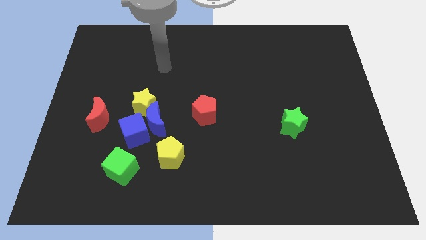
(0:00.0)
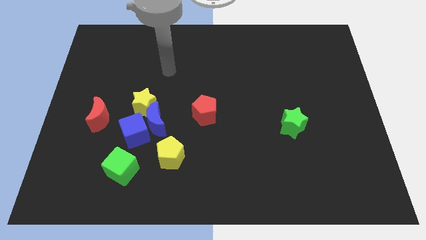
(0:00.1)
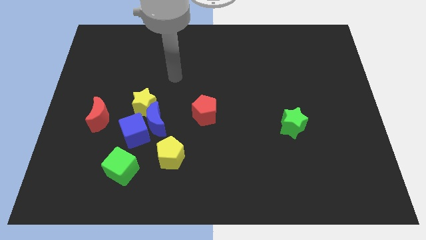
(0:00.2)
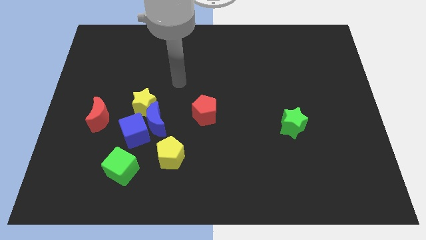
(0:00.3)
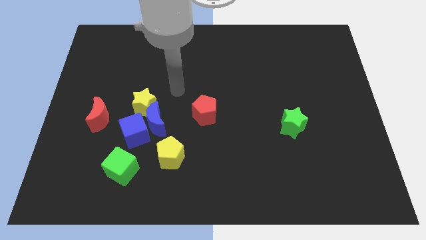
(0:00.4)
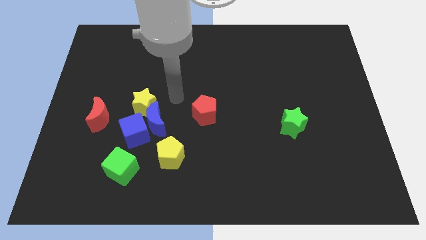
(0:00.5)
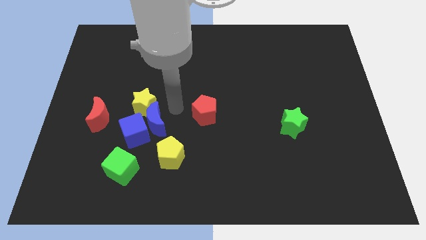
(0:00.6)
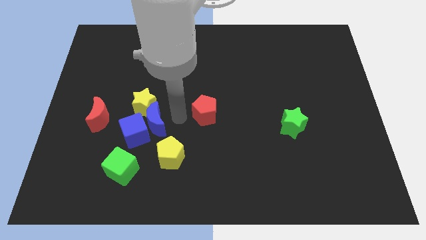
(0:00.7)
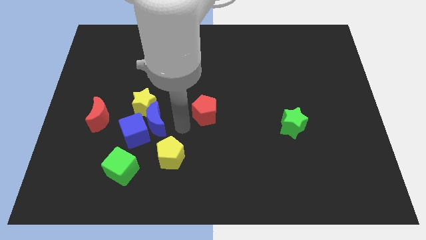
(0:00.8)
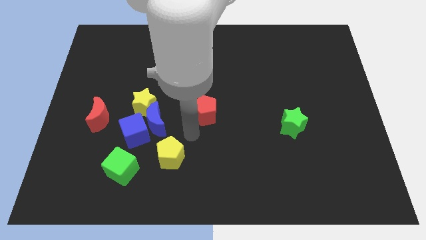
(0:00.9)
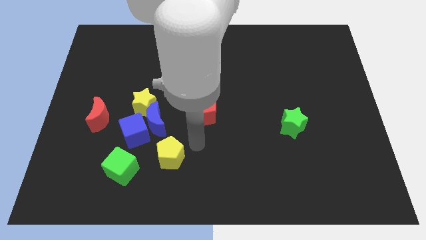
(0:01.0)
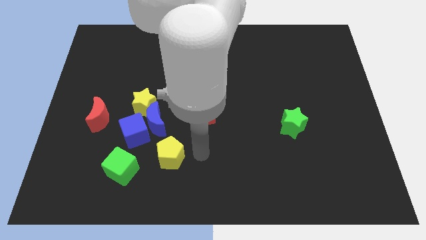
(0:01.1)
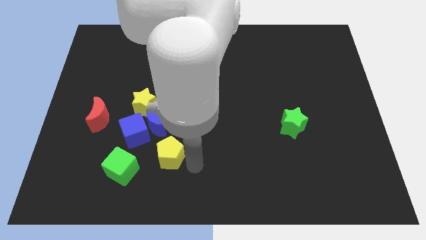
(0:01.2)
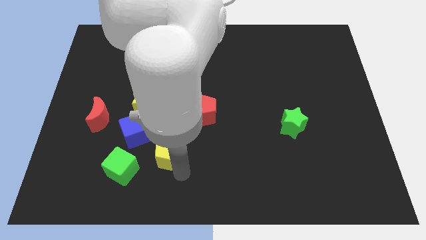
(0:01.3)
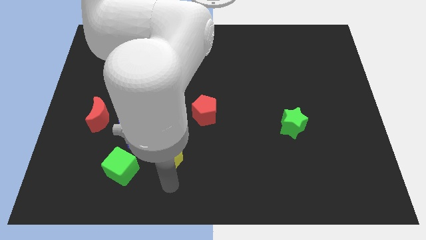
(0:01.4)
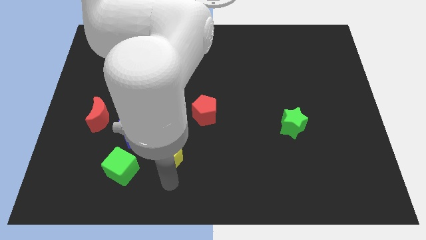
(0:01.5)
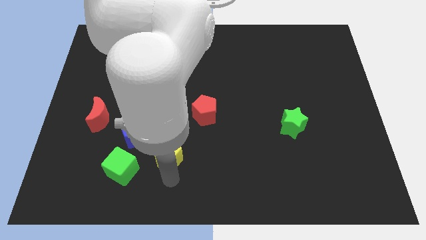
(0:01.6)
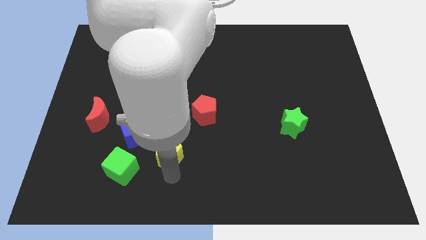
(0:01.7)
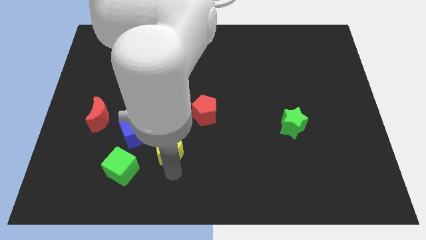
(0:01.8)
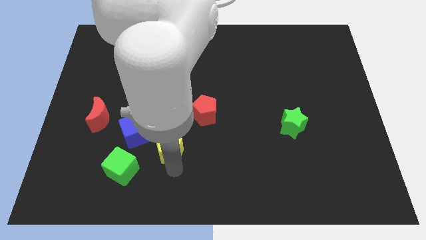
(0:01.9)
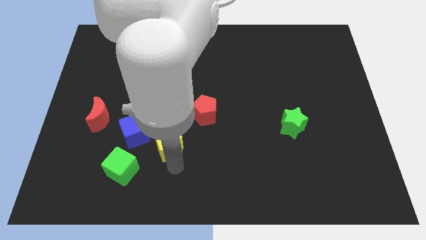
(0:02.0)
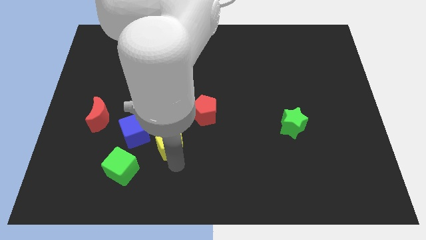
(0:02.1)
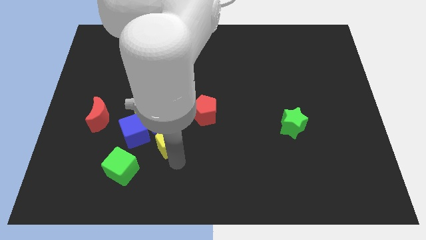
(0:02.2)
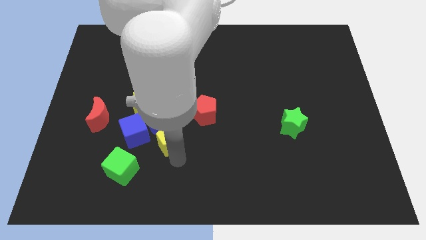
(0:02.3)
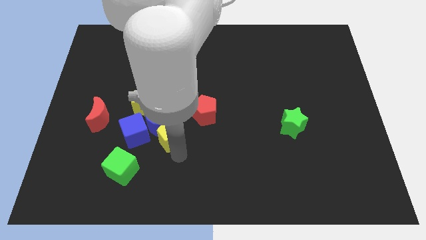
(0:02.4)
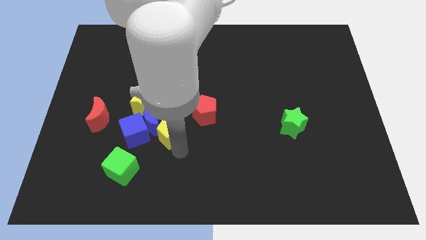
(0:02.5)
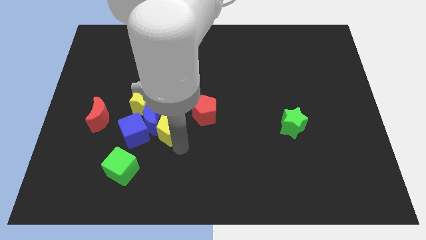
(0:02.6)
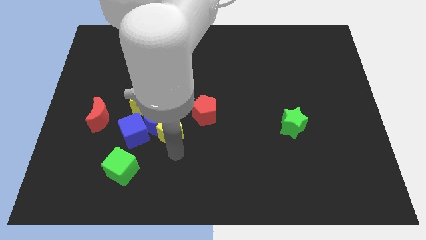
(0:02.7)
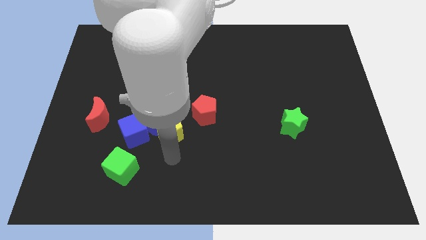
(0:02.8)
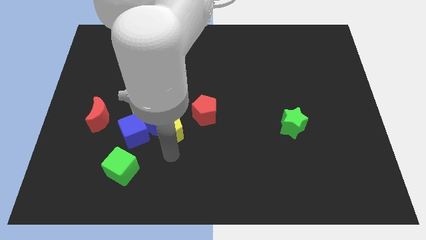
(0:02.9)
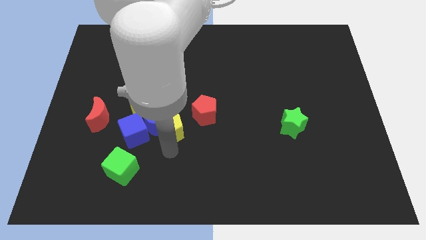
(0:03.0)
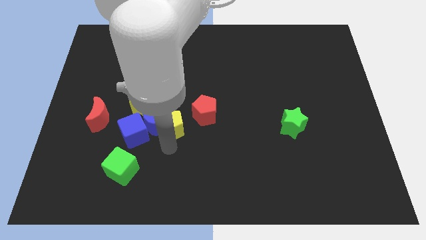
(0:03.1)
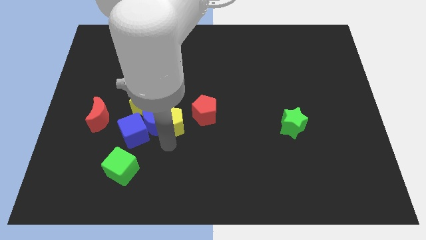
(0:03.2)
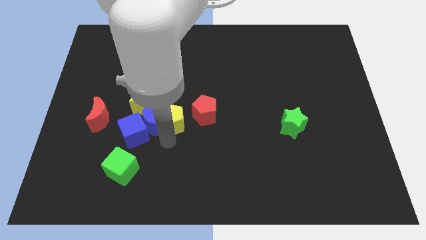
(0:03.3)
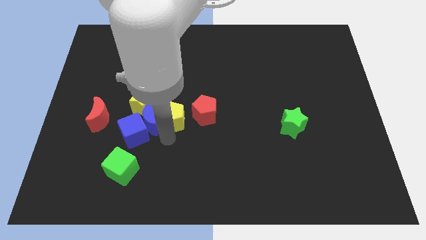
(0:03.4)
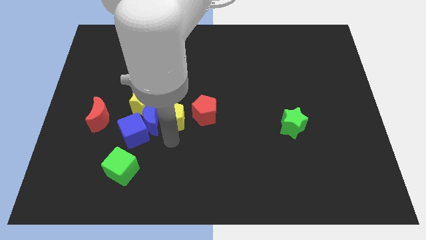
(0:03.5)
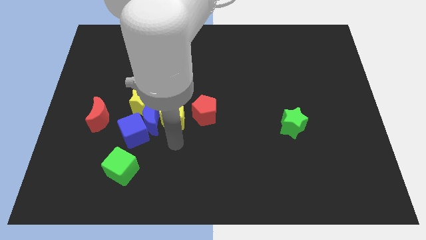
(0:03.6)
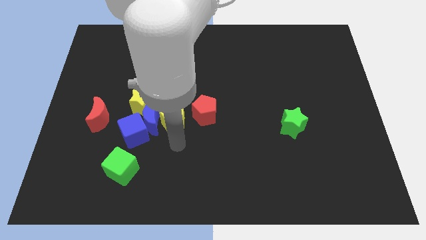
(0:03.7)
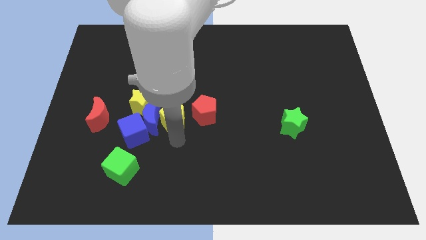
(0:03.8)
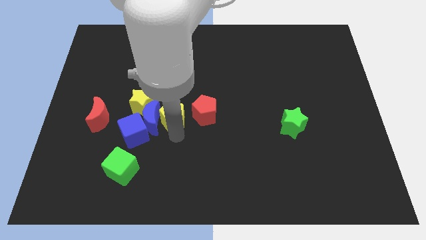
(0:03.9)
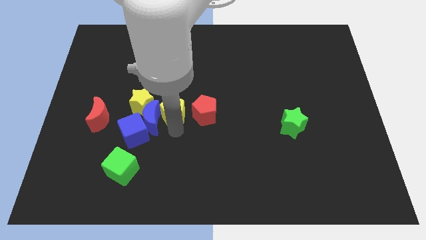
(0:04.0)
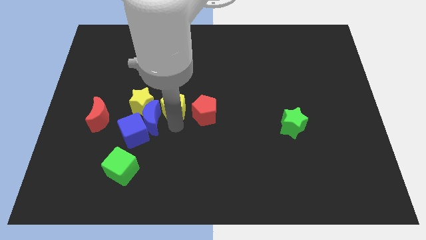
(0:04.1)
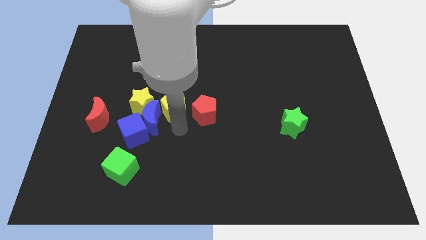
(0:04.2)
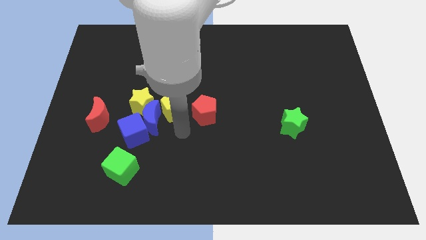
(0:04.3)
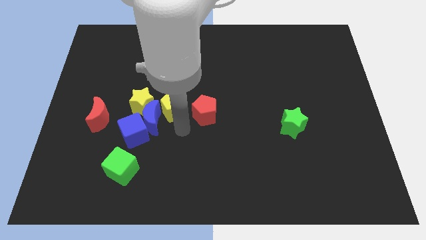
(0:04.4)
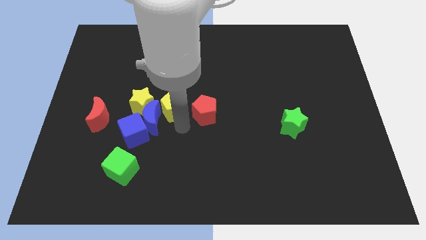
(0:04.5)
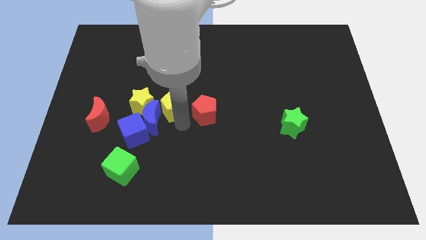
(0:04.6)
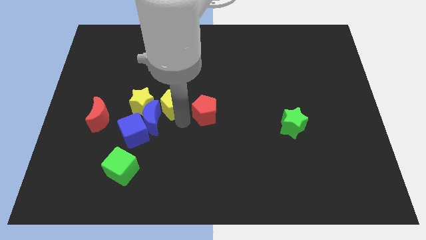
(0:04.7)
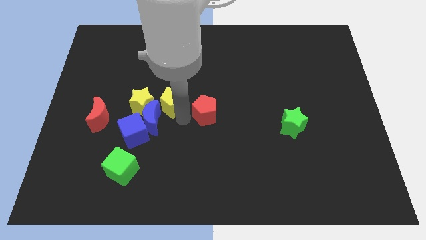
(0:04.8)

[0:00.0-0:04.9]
put the yellow pentagon to the top right side of the yellow star

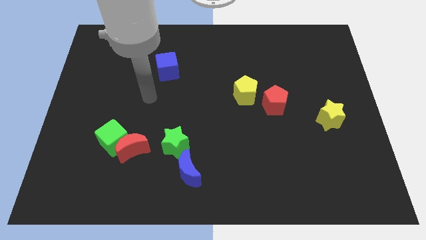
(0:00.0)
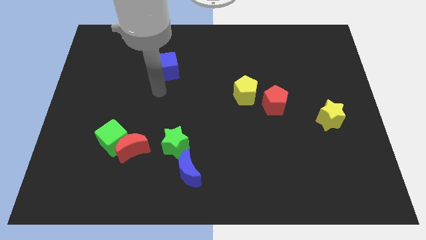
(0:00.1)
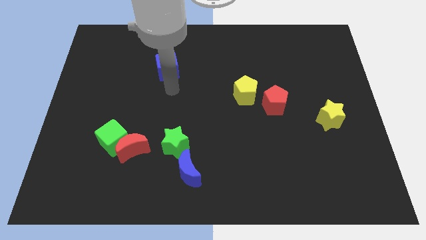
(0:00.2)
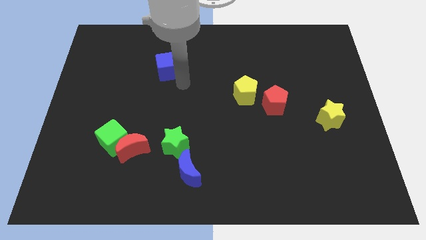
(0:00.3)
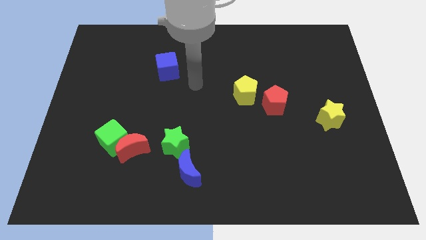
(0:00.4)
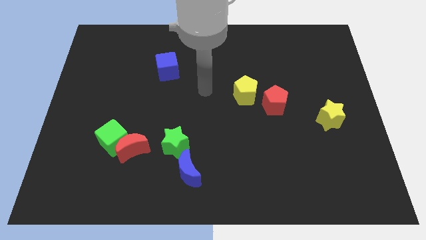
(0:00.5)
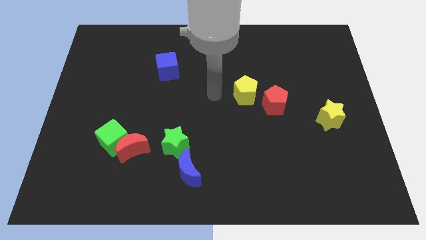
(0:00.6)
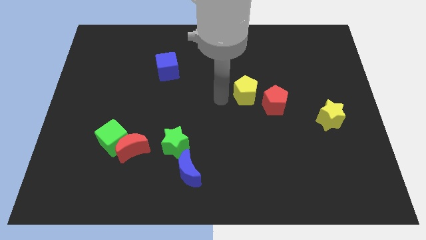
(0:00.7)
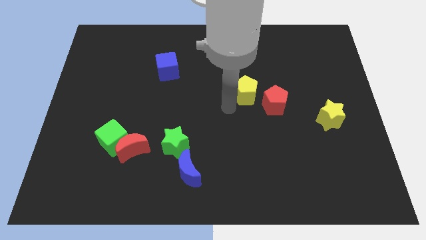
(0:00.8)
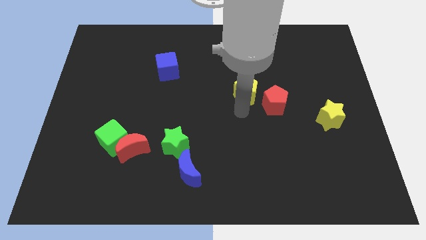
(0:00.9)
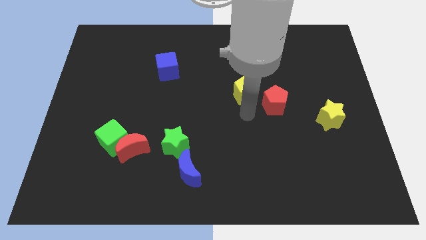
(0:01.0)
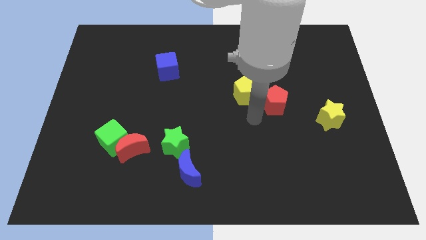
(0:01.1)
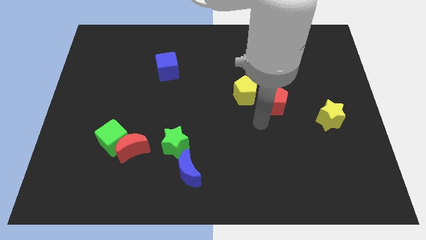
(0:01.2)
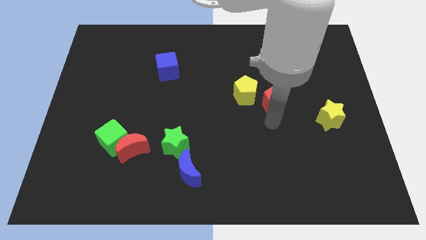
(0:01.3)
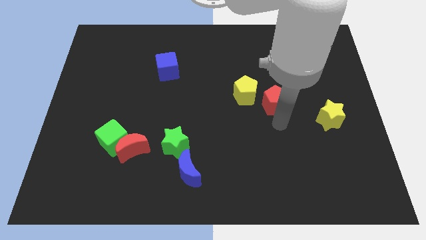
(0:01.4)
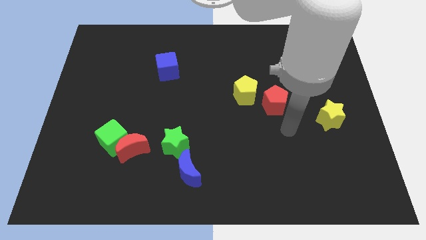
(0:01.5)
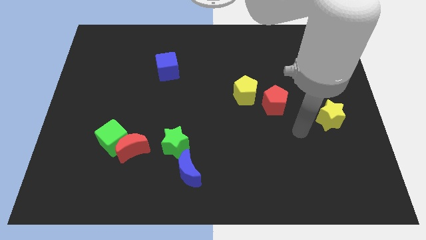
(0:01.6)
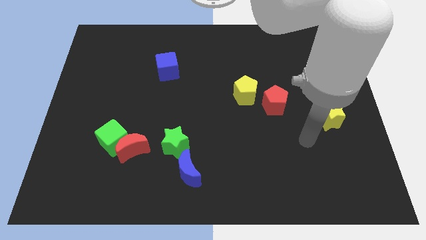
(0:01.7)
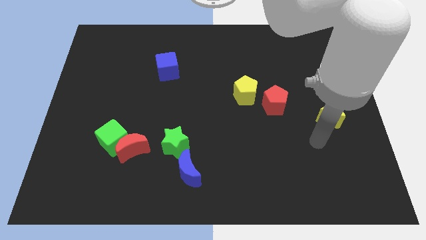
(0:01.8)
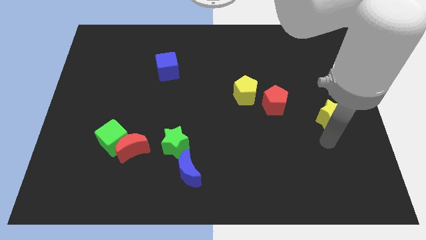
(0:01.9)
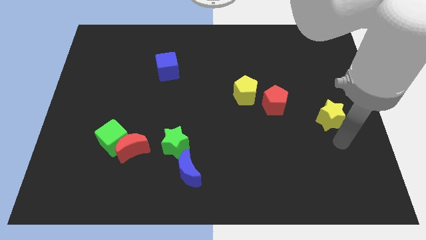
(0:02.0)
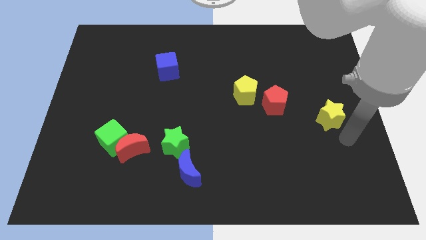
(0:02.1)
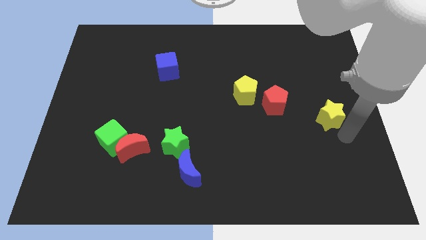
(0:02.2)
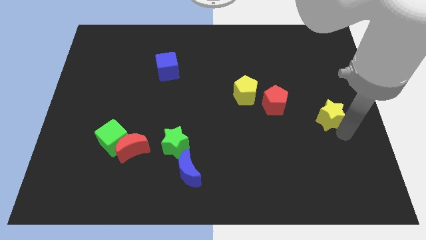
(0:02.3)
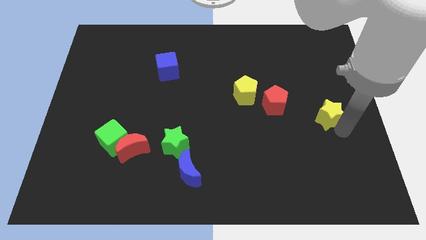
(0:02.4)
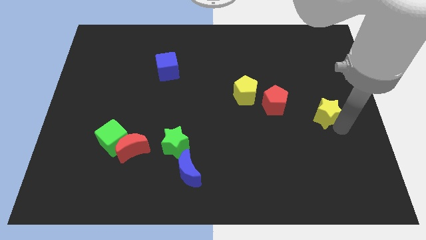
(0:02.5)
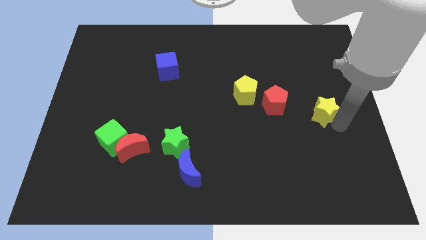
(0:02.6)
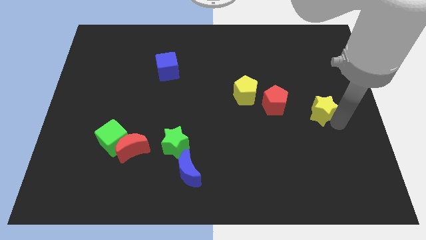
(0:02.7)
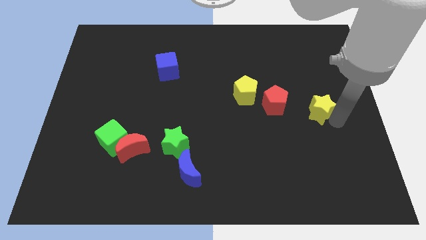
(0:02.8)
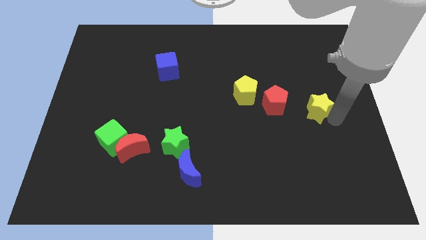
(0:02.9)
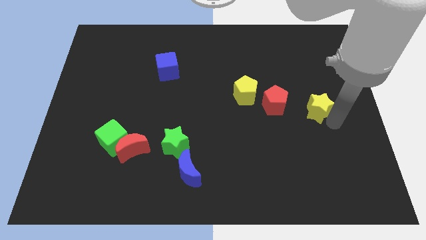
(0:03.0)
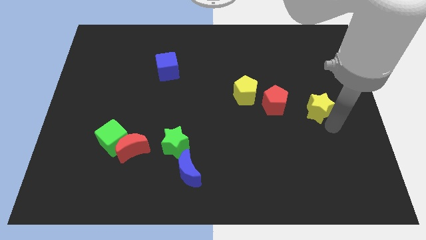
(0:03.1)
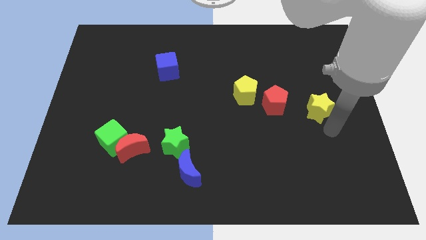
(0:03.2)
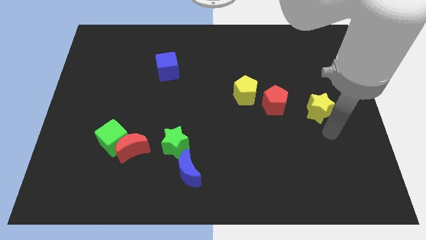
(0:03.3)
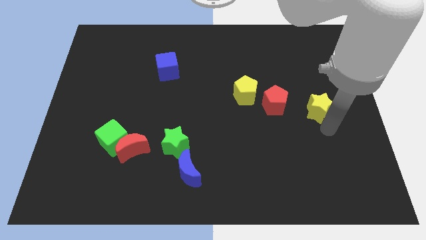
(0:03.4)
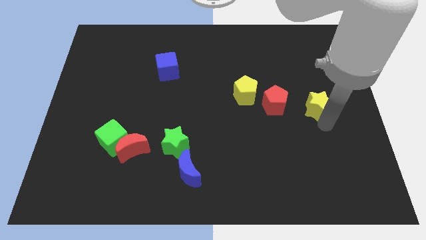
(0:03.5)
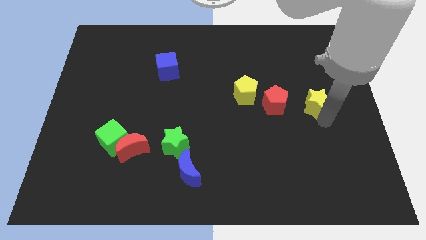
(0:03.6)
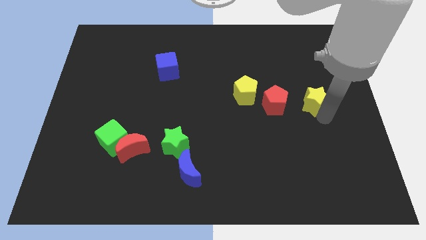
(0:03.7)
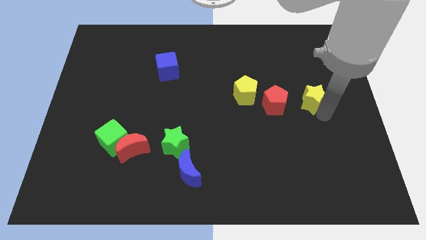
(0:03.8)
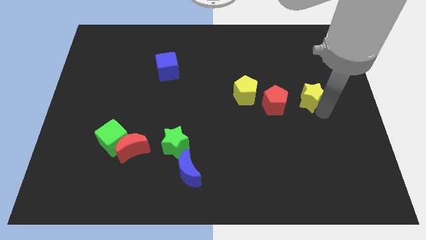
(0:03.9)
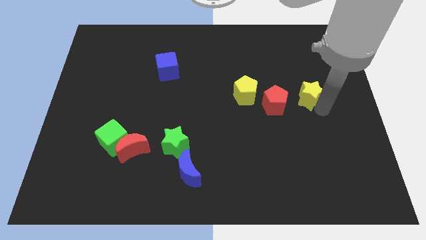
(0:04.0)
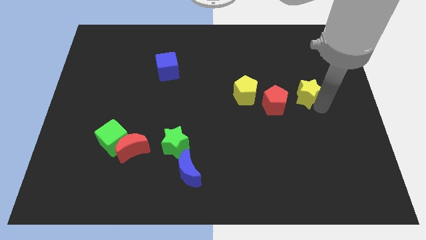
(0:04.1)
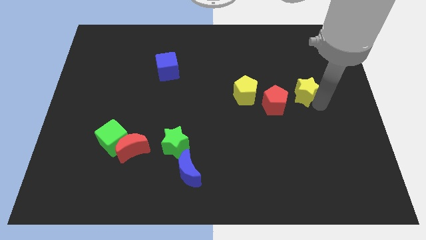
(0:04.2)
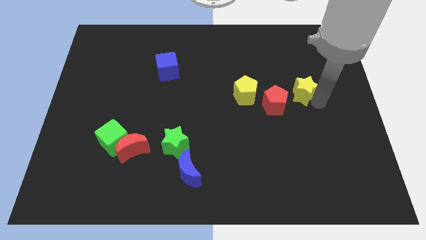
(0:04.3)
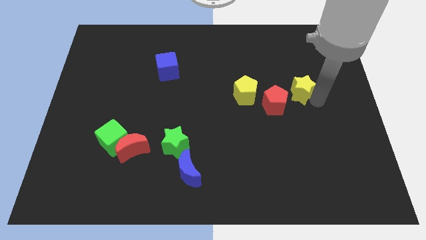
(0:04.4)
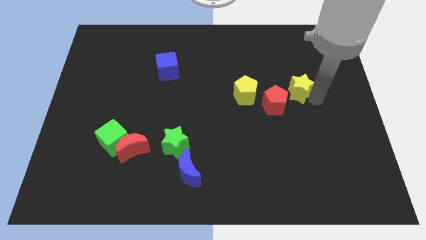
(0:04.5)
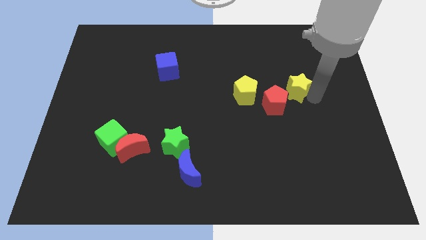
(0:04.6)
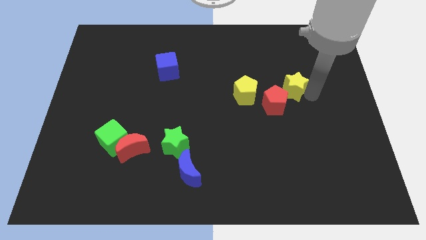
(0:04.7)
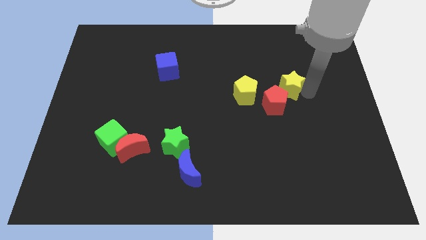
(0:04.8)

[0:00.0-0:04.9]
slide the yellow star to the top side of the red pentagon
